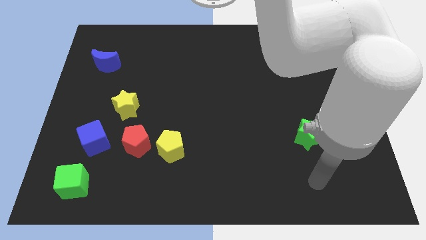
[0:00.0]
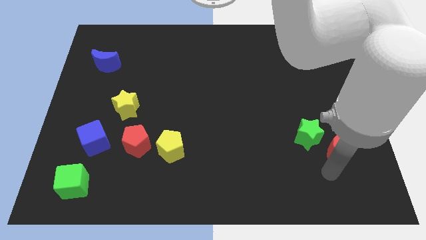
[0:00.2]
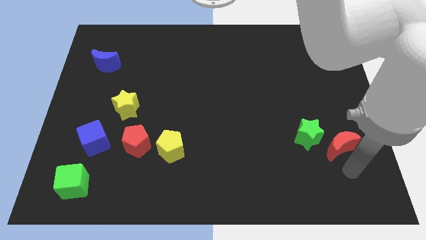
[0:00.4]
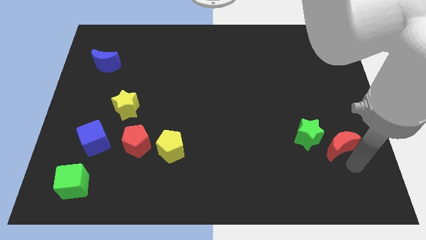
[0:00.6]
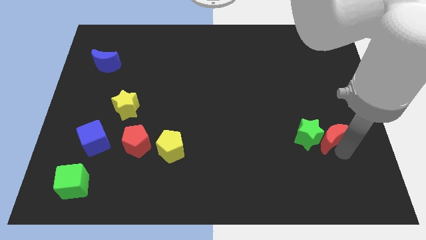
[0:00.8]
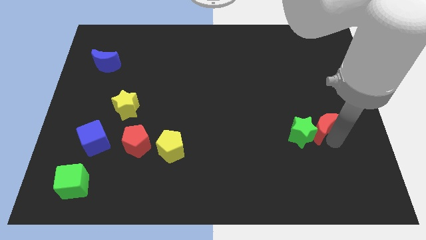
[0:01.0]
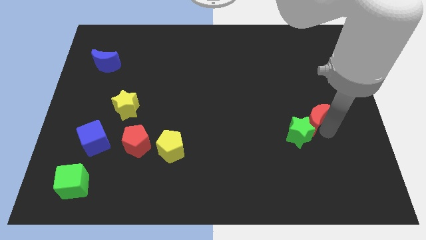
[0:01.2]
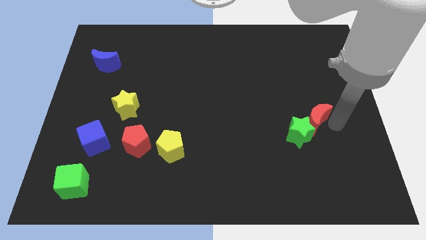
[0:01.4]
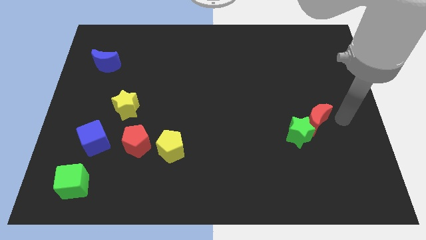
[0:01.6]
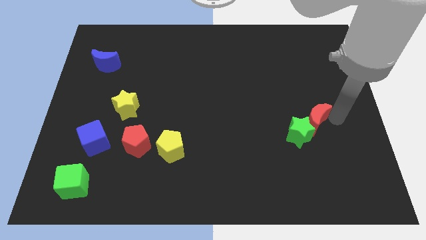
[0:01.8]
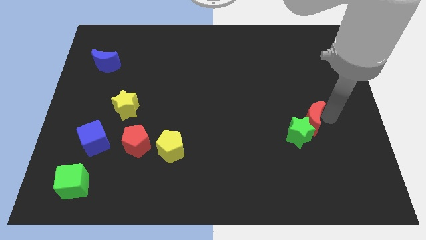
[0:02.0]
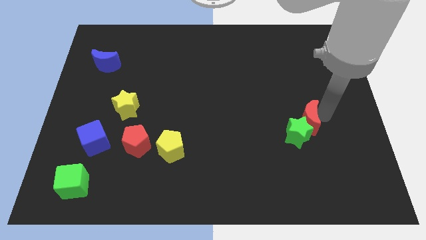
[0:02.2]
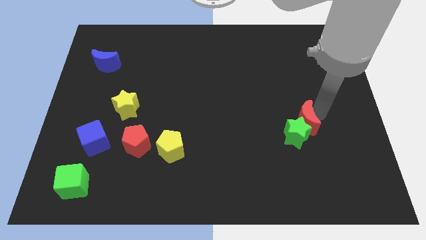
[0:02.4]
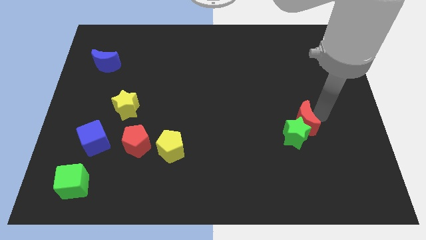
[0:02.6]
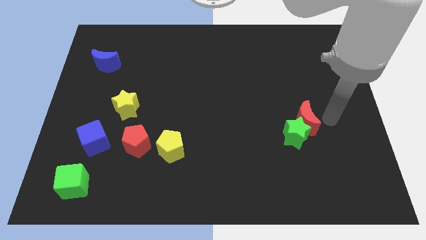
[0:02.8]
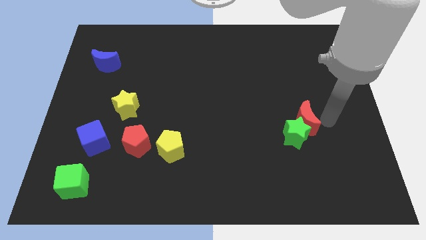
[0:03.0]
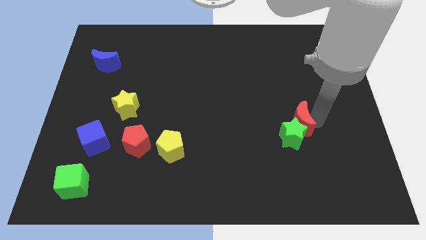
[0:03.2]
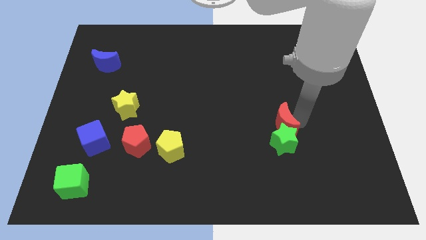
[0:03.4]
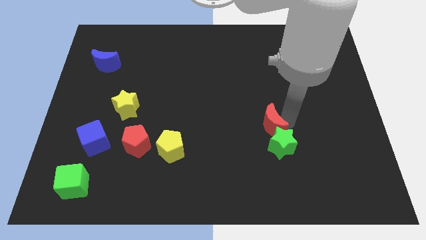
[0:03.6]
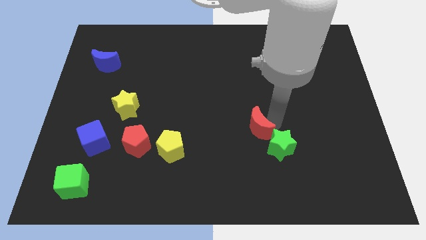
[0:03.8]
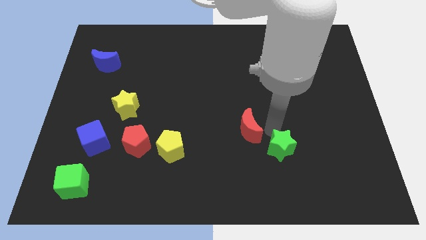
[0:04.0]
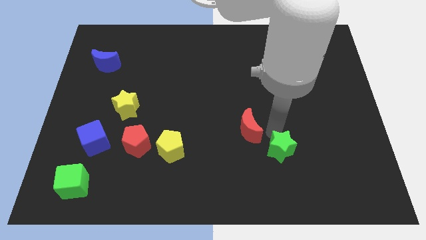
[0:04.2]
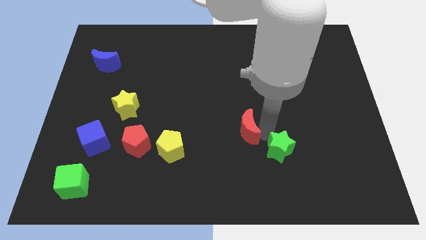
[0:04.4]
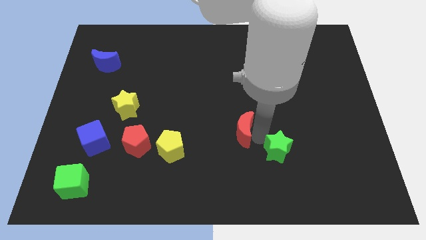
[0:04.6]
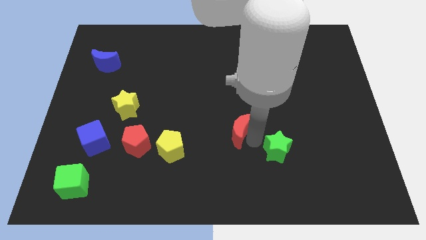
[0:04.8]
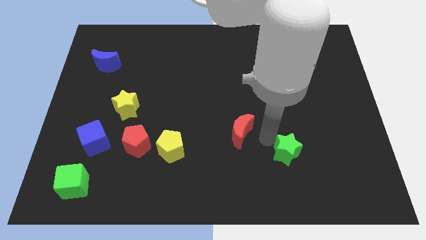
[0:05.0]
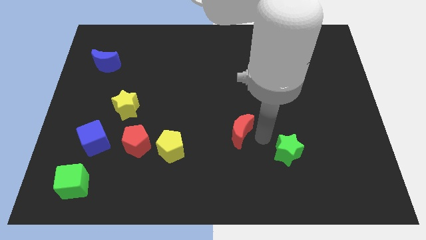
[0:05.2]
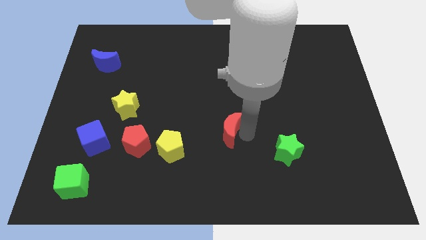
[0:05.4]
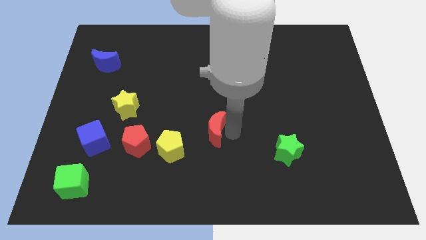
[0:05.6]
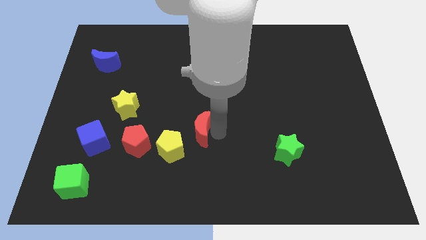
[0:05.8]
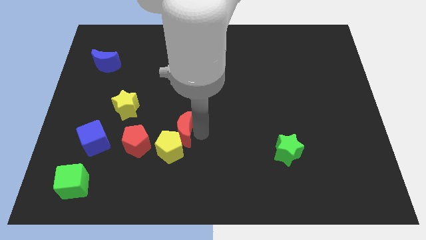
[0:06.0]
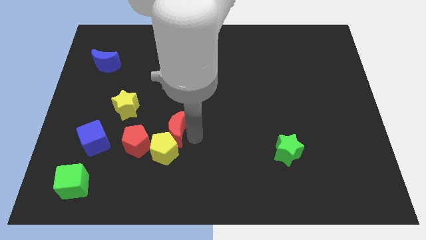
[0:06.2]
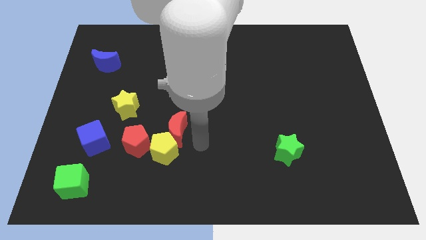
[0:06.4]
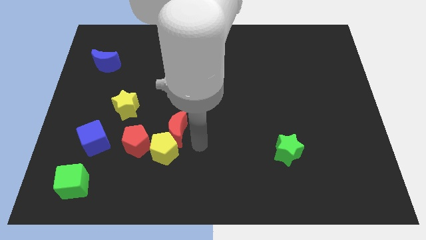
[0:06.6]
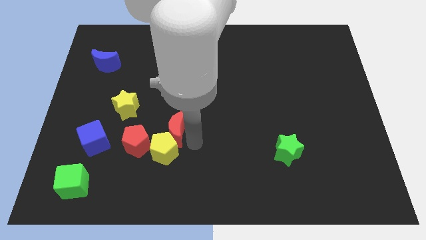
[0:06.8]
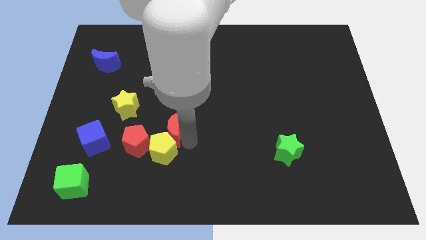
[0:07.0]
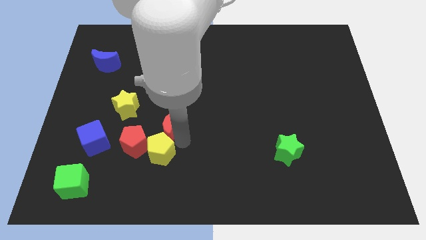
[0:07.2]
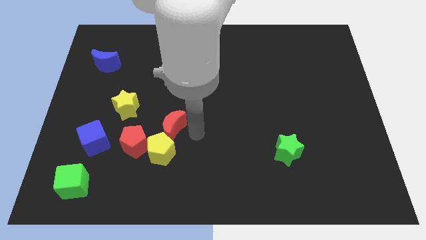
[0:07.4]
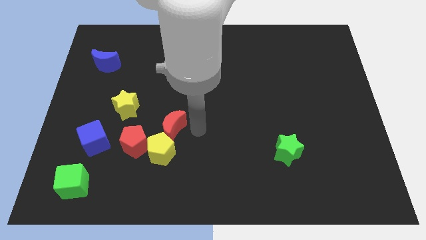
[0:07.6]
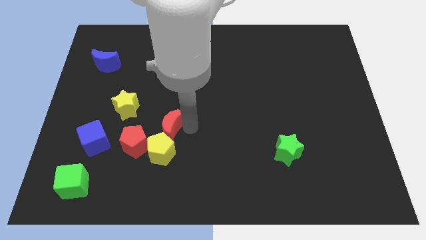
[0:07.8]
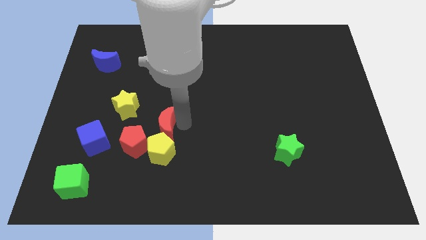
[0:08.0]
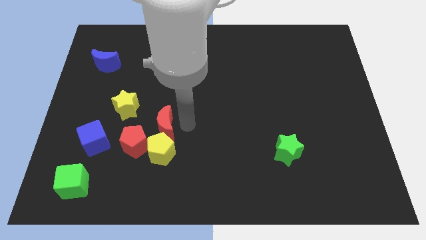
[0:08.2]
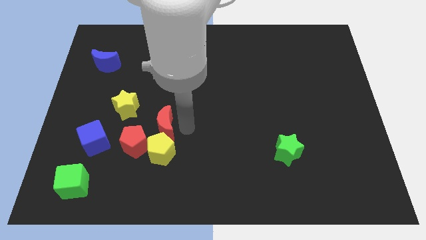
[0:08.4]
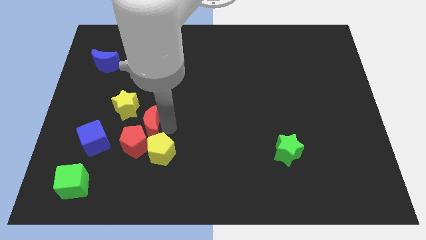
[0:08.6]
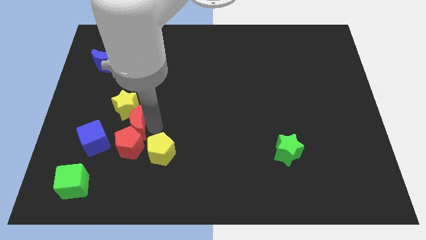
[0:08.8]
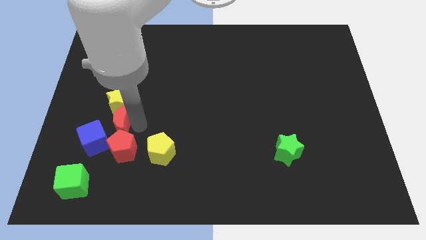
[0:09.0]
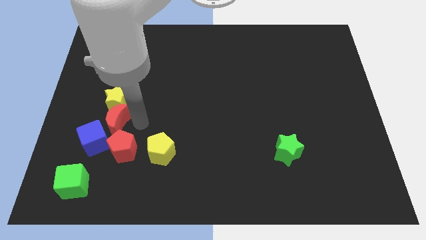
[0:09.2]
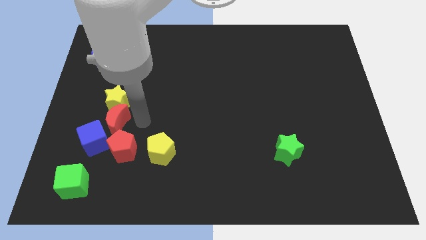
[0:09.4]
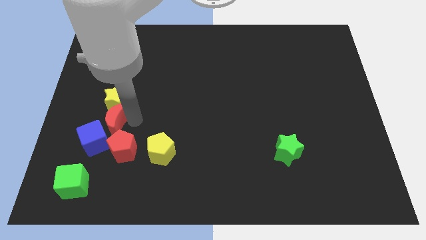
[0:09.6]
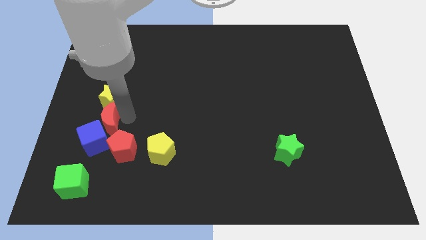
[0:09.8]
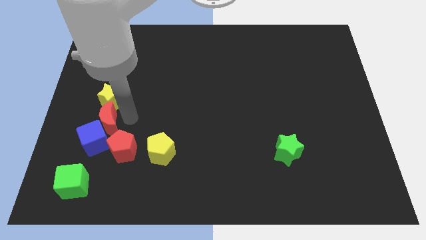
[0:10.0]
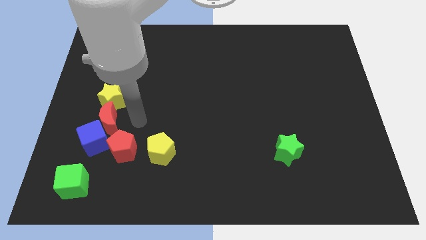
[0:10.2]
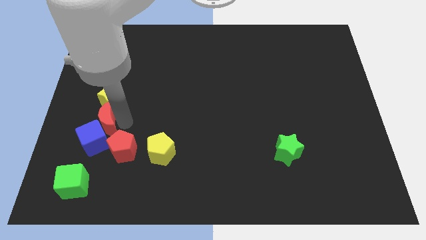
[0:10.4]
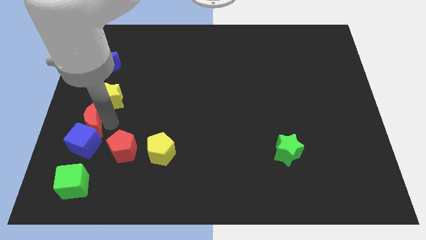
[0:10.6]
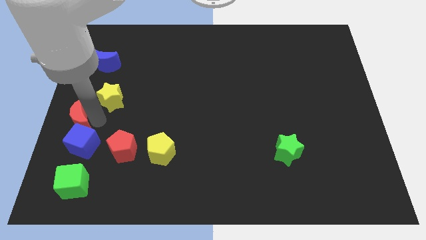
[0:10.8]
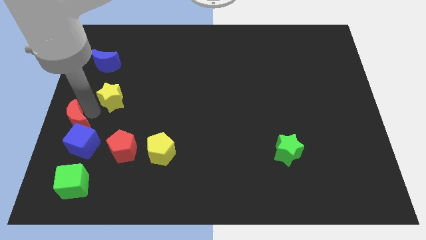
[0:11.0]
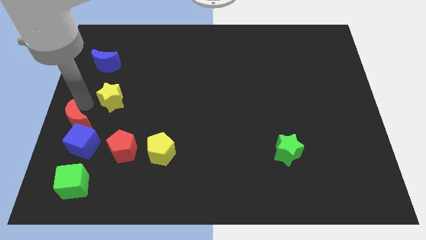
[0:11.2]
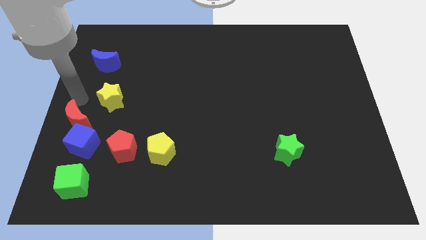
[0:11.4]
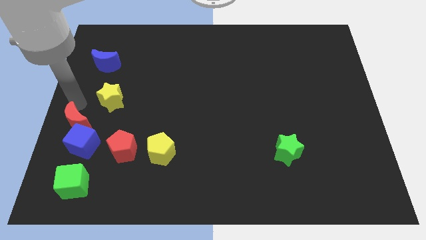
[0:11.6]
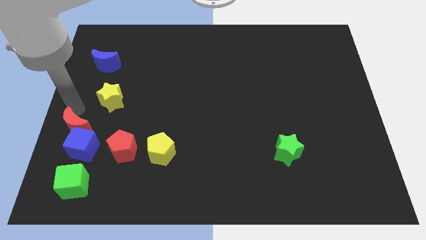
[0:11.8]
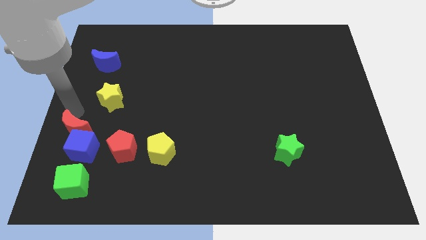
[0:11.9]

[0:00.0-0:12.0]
slide the red moon just left of the red pentagon

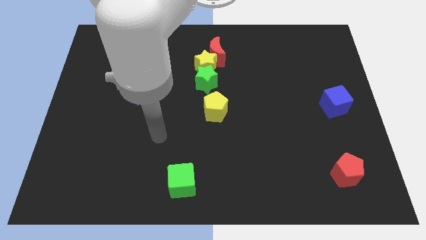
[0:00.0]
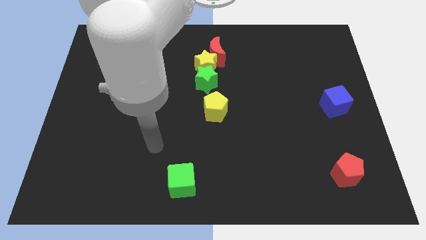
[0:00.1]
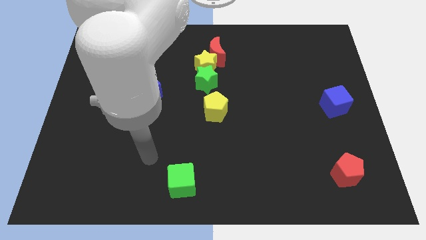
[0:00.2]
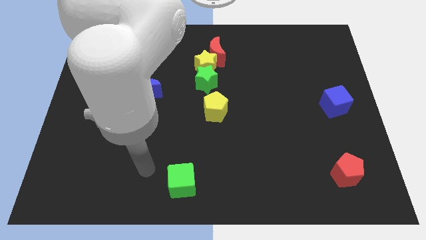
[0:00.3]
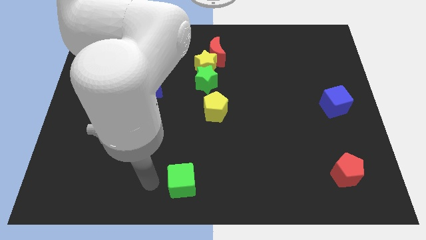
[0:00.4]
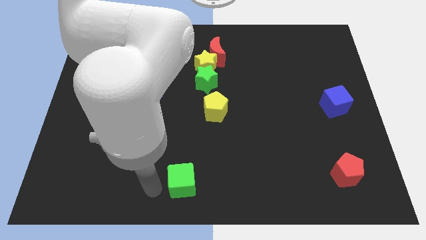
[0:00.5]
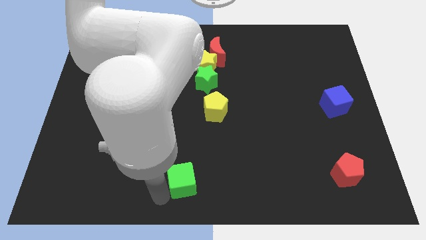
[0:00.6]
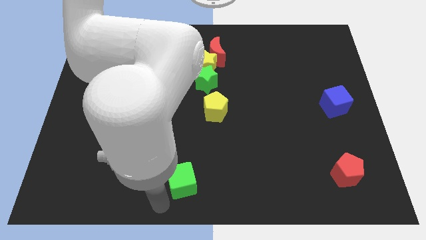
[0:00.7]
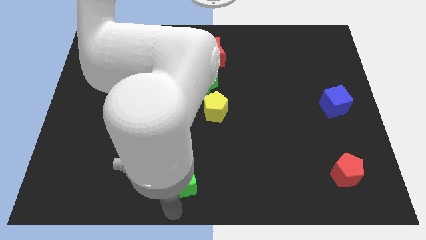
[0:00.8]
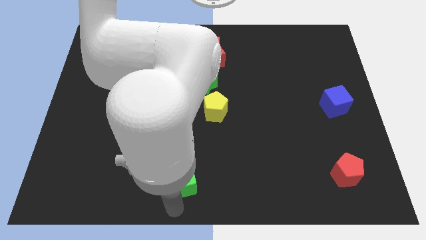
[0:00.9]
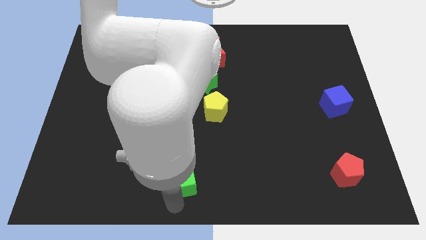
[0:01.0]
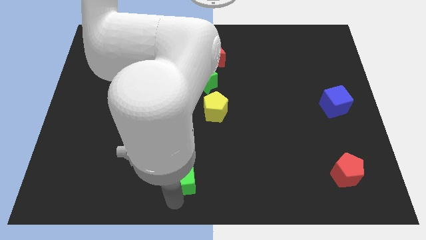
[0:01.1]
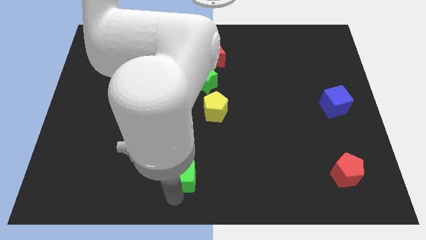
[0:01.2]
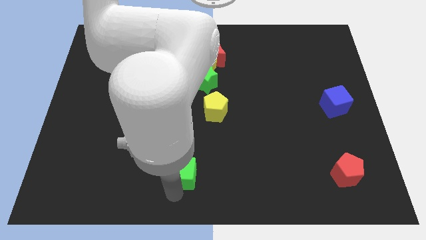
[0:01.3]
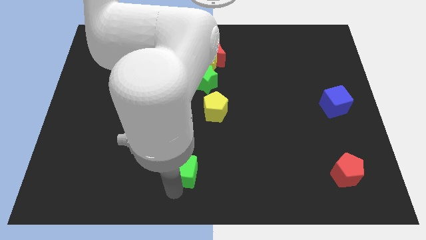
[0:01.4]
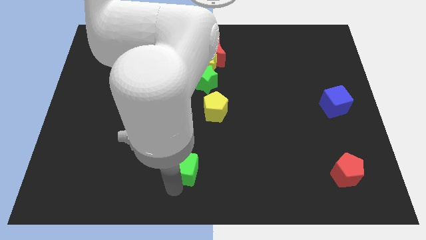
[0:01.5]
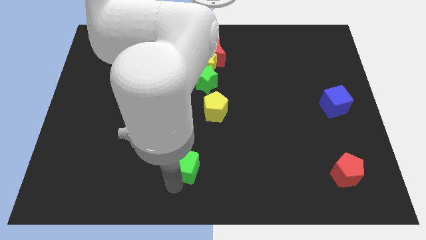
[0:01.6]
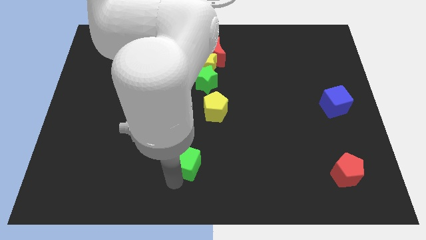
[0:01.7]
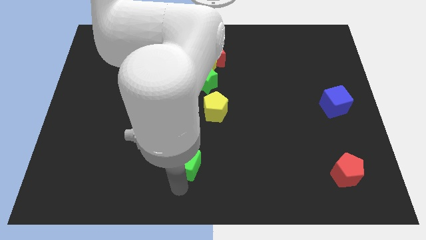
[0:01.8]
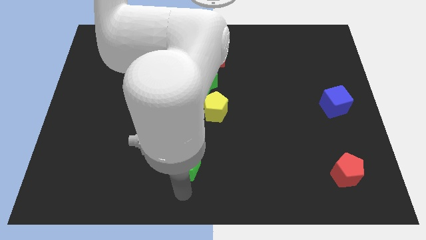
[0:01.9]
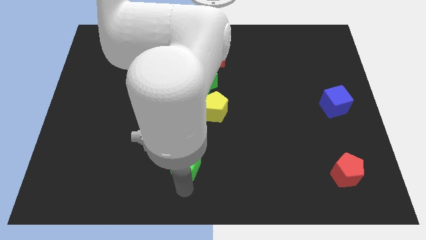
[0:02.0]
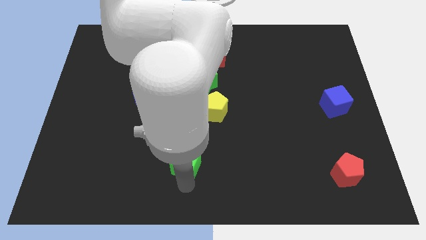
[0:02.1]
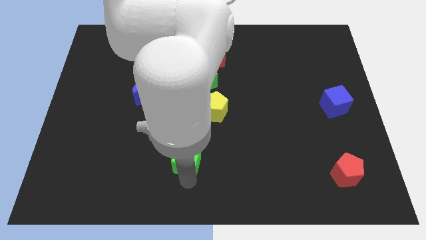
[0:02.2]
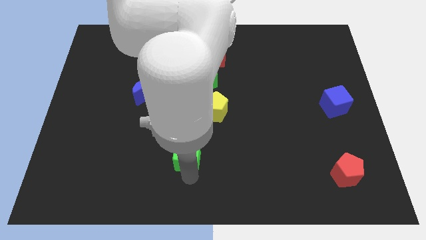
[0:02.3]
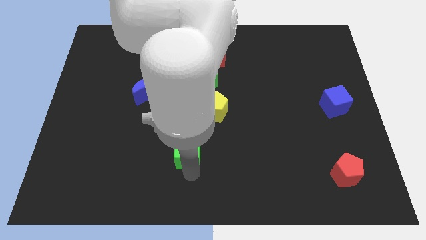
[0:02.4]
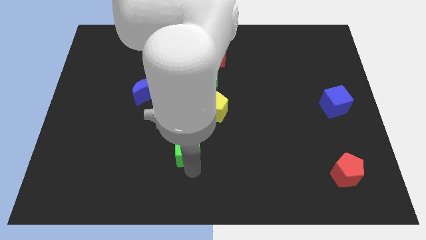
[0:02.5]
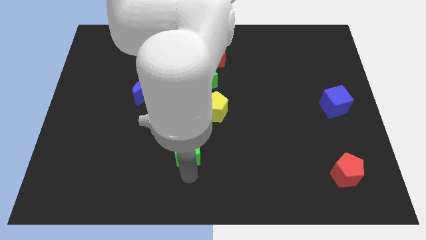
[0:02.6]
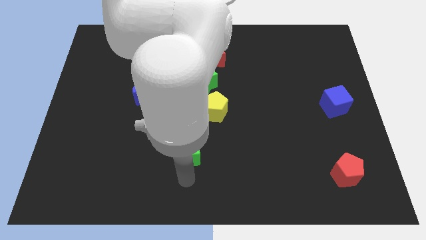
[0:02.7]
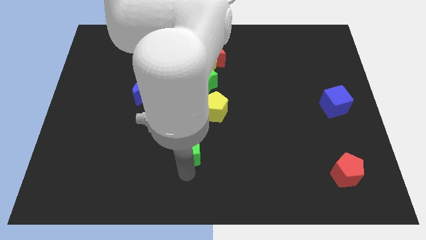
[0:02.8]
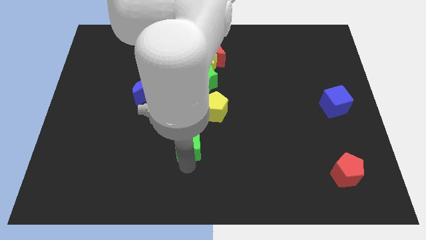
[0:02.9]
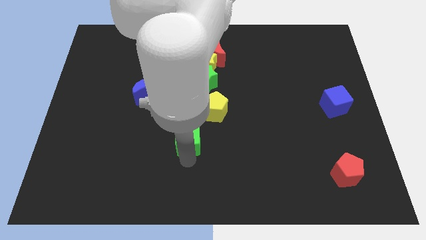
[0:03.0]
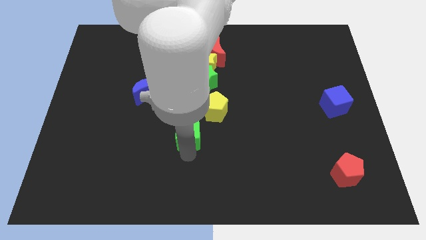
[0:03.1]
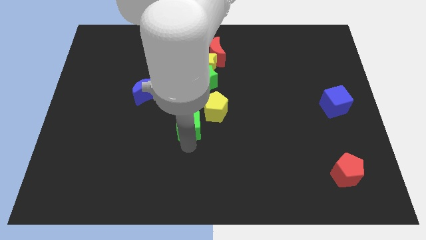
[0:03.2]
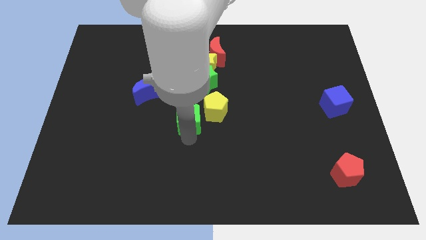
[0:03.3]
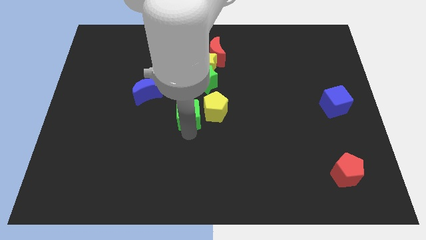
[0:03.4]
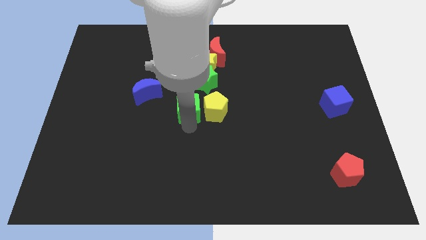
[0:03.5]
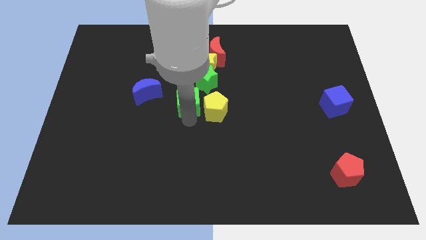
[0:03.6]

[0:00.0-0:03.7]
push the green cube right of the blue moon
